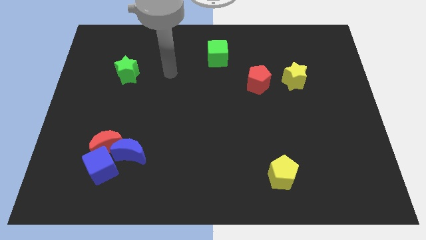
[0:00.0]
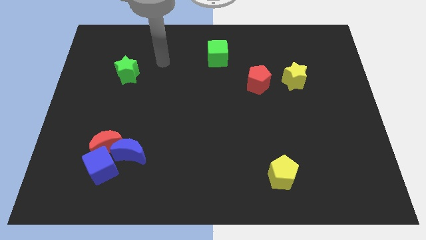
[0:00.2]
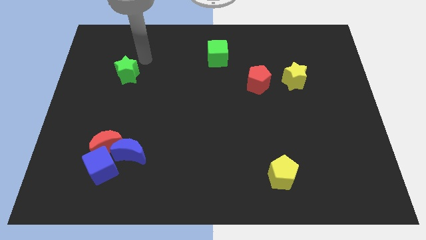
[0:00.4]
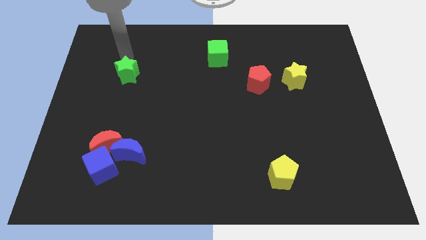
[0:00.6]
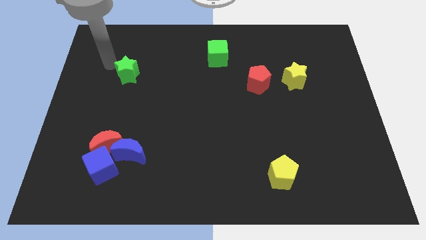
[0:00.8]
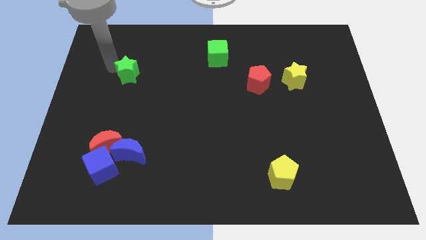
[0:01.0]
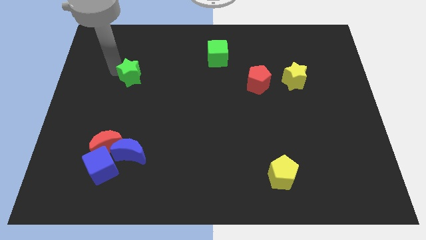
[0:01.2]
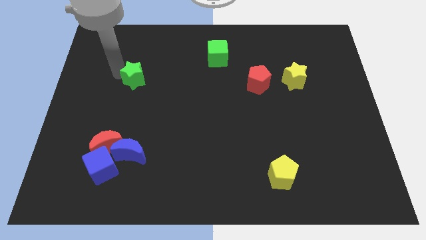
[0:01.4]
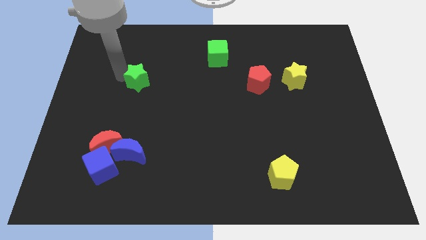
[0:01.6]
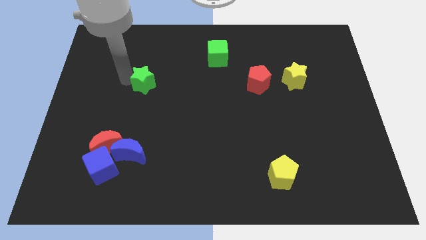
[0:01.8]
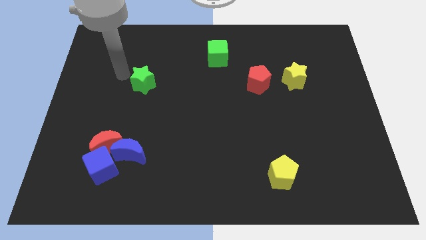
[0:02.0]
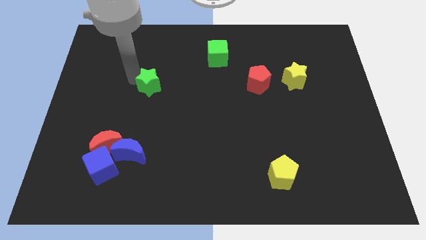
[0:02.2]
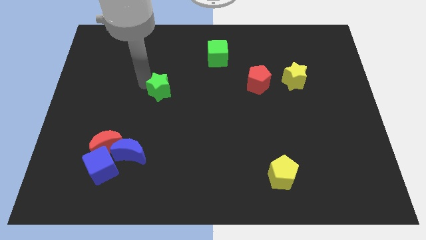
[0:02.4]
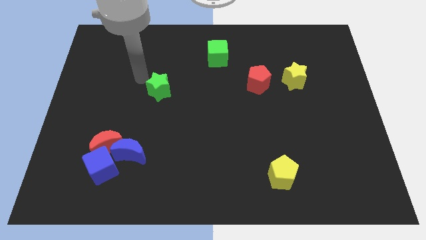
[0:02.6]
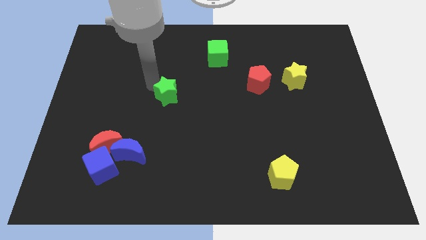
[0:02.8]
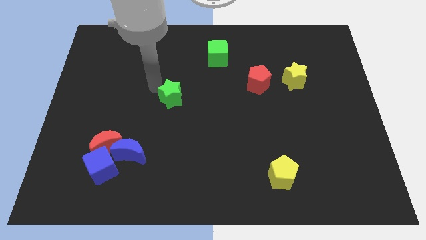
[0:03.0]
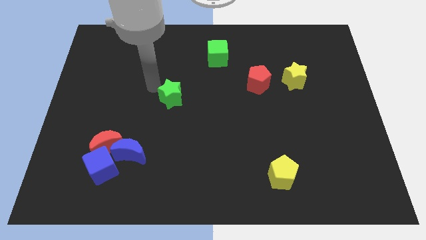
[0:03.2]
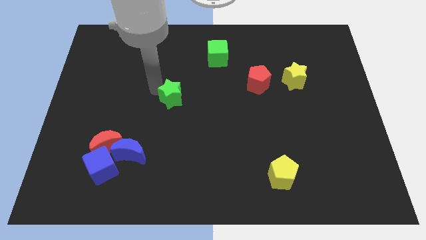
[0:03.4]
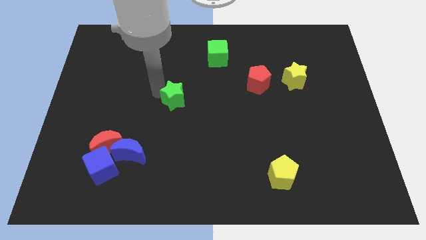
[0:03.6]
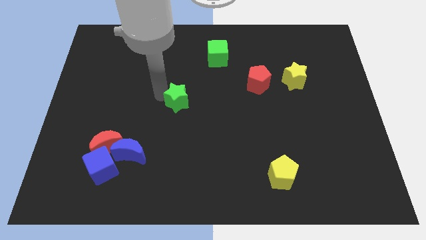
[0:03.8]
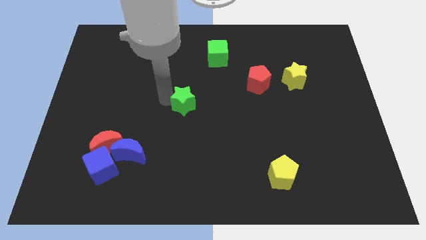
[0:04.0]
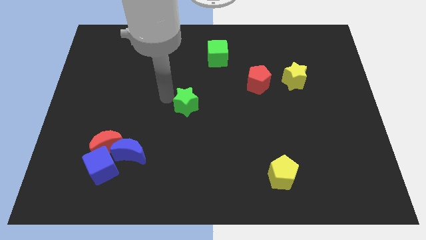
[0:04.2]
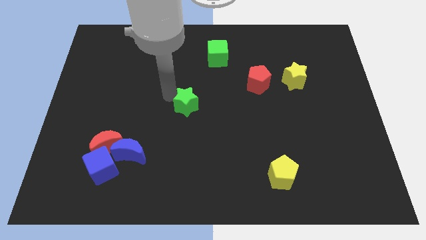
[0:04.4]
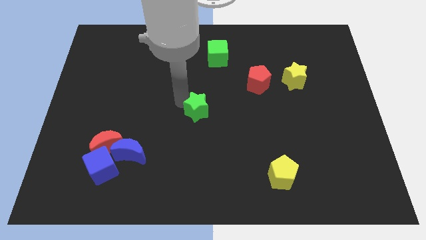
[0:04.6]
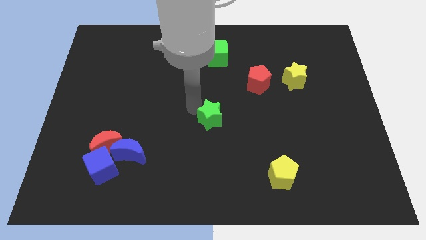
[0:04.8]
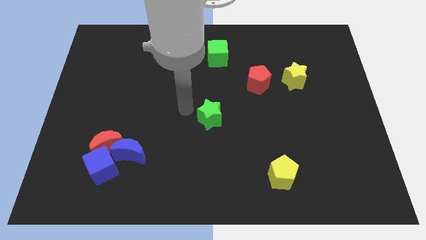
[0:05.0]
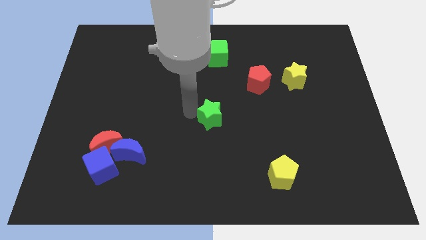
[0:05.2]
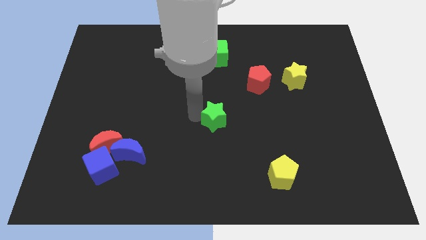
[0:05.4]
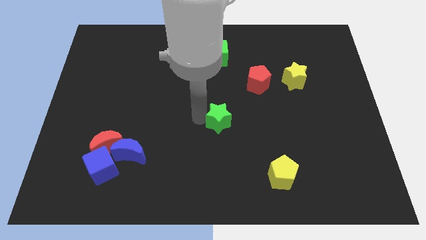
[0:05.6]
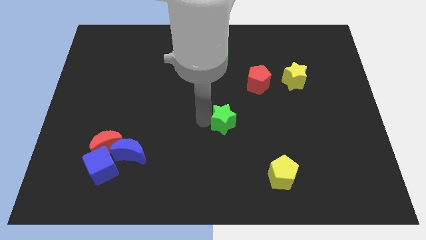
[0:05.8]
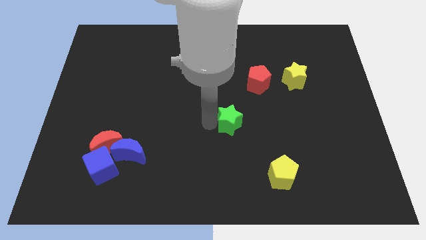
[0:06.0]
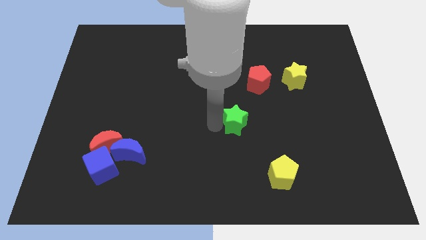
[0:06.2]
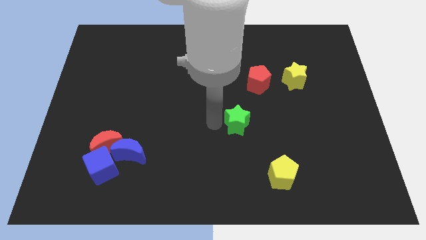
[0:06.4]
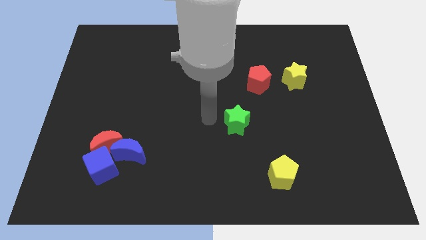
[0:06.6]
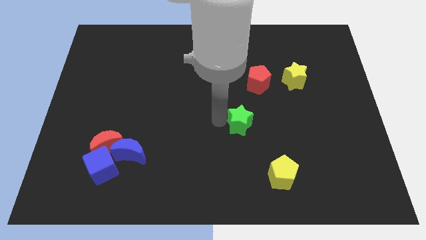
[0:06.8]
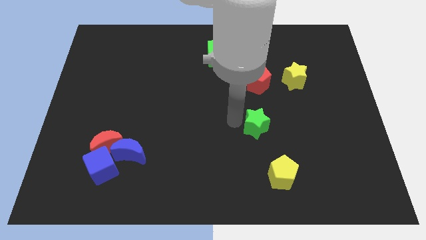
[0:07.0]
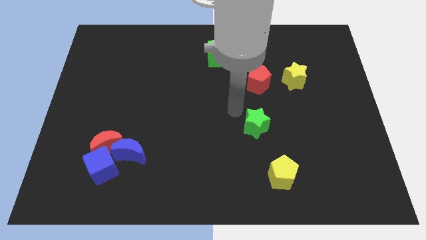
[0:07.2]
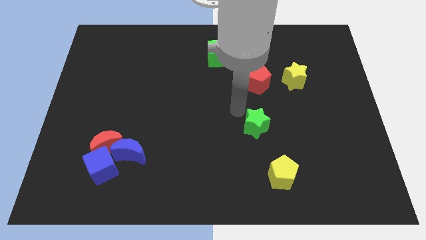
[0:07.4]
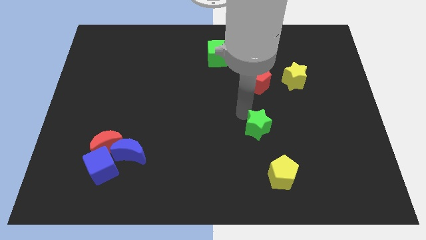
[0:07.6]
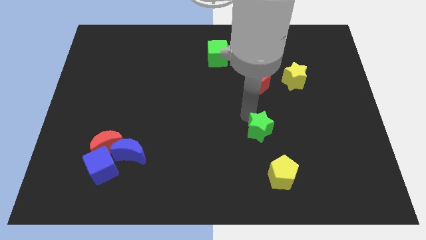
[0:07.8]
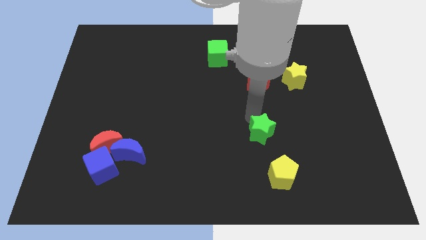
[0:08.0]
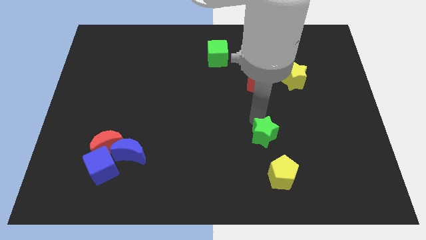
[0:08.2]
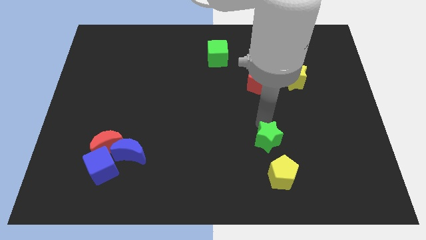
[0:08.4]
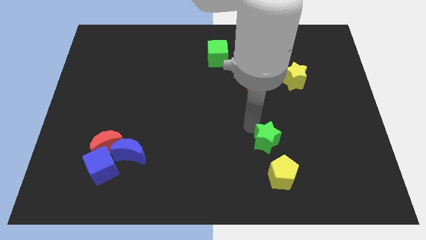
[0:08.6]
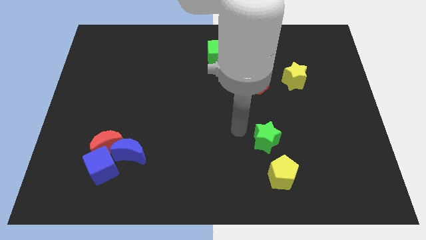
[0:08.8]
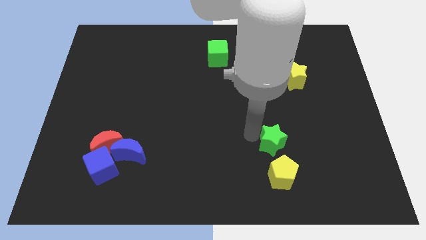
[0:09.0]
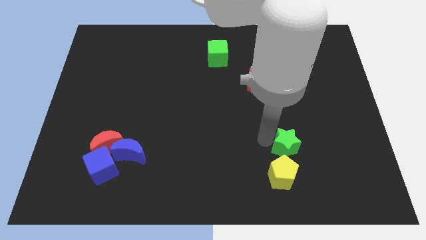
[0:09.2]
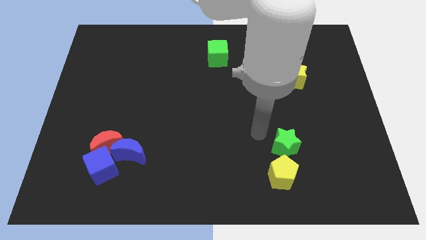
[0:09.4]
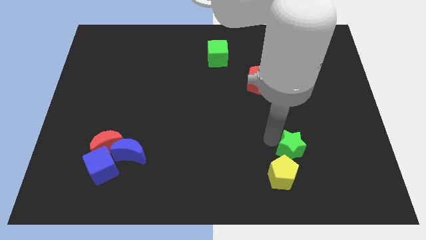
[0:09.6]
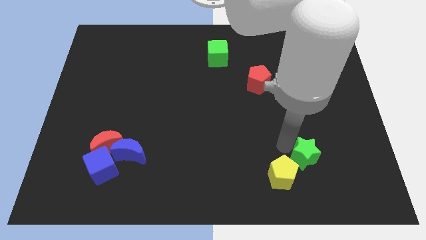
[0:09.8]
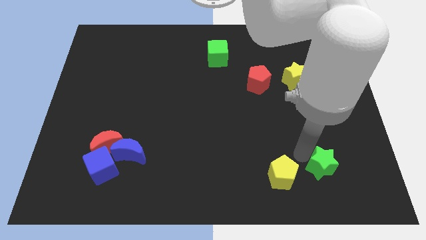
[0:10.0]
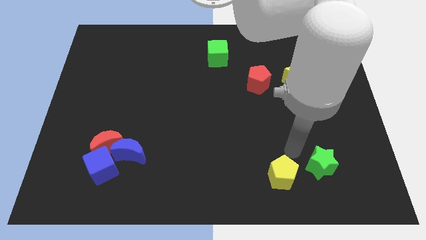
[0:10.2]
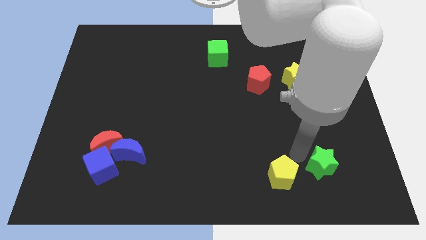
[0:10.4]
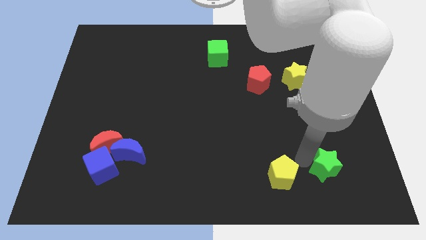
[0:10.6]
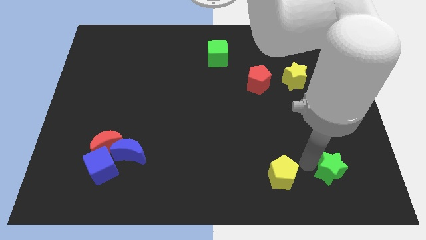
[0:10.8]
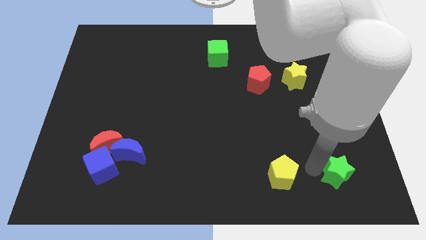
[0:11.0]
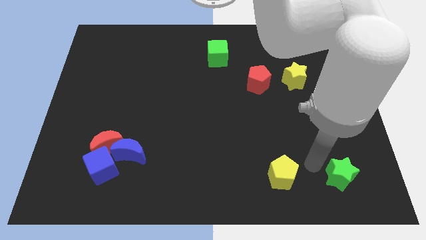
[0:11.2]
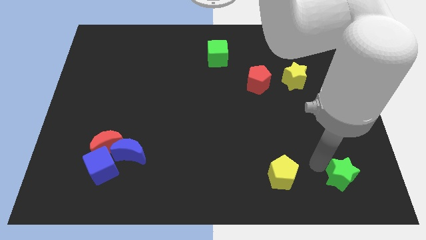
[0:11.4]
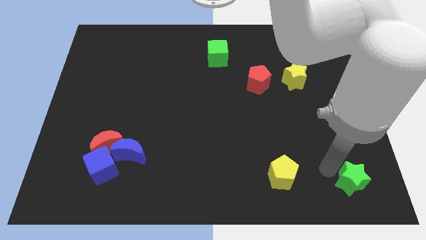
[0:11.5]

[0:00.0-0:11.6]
put the green star to the lower right corner

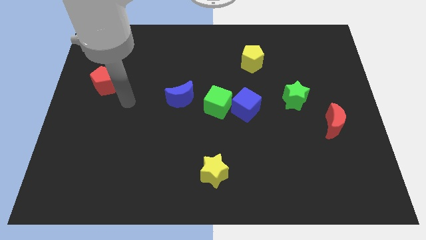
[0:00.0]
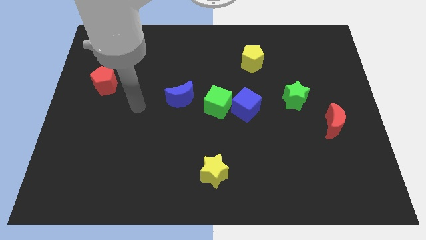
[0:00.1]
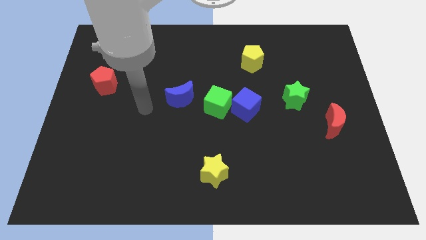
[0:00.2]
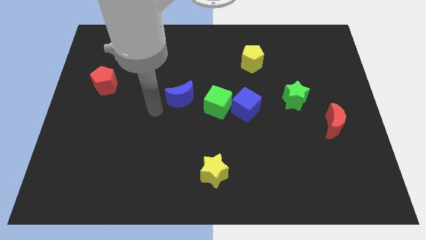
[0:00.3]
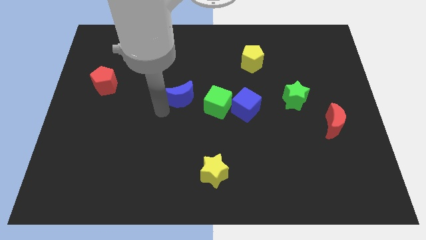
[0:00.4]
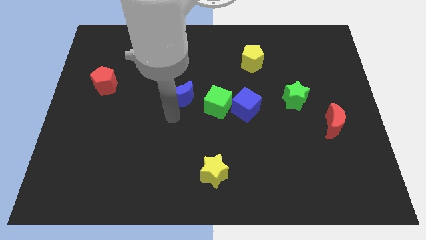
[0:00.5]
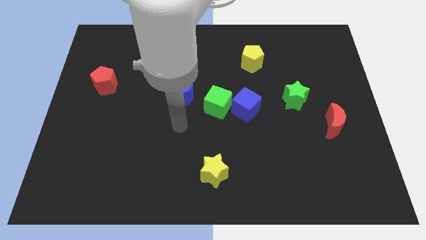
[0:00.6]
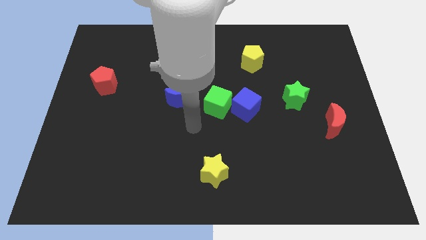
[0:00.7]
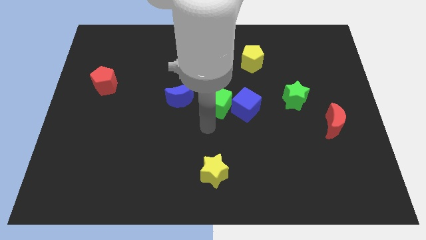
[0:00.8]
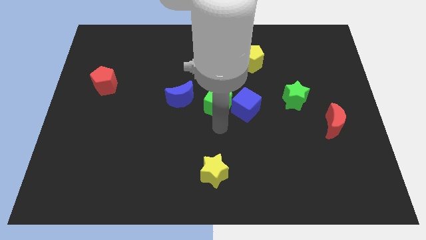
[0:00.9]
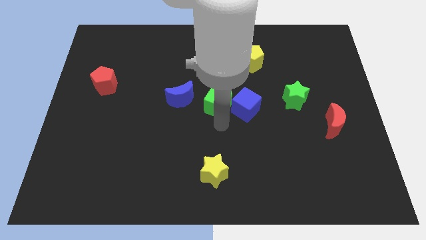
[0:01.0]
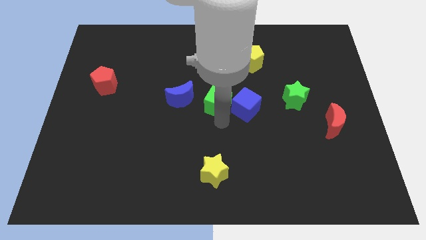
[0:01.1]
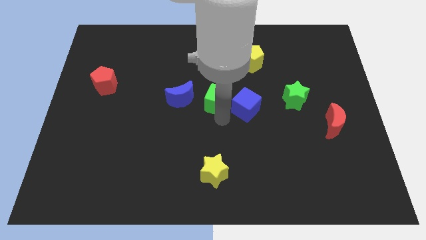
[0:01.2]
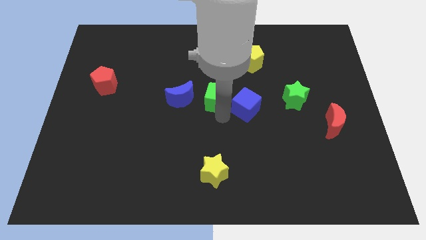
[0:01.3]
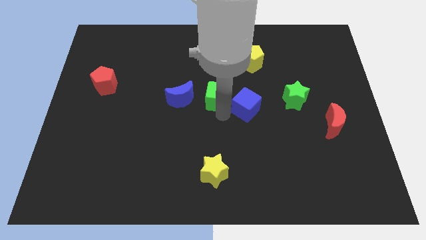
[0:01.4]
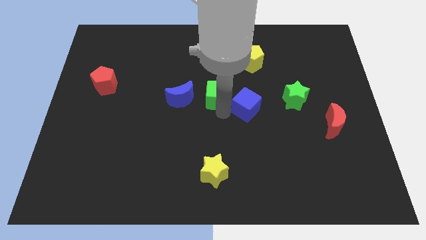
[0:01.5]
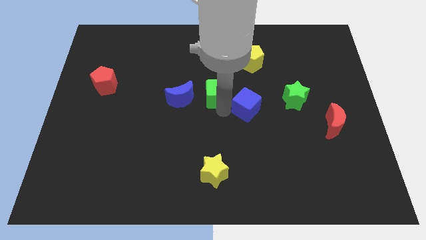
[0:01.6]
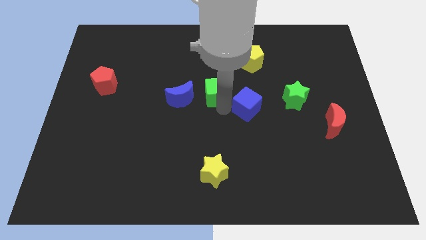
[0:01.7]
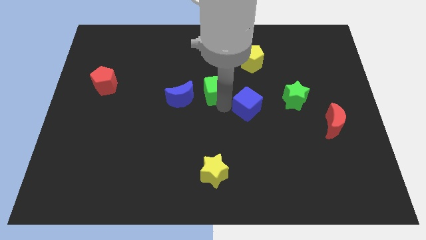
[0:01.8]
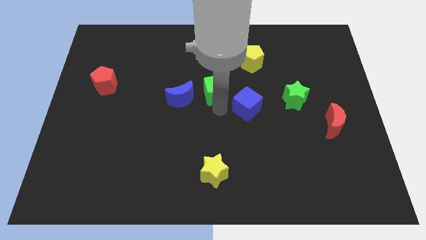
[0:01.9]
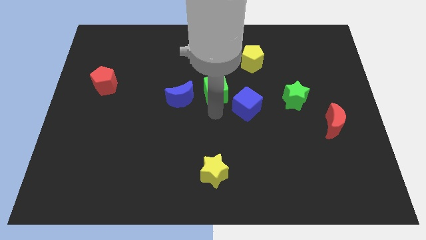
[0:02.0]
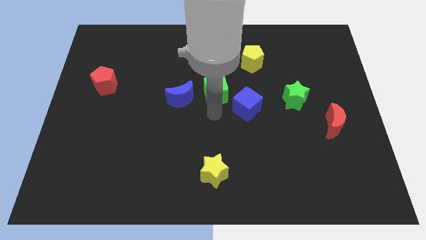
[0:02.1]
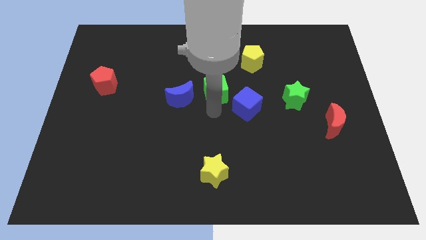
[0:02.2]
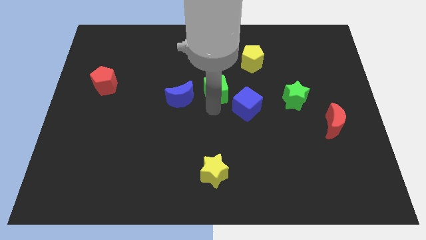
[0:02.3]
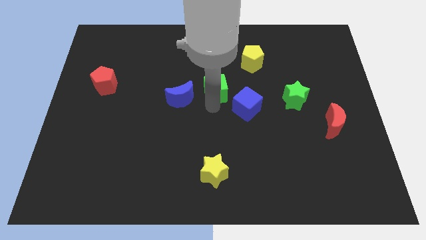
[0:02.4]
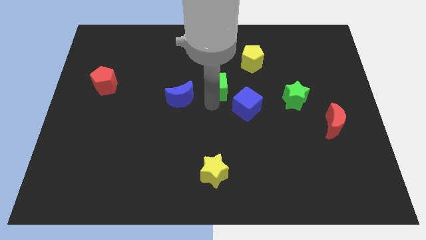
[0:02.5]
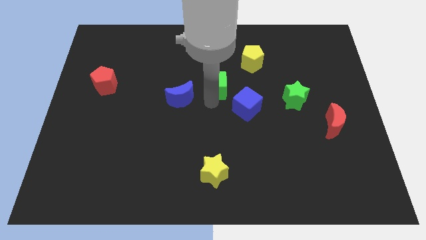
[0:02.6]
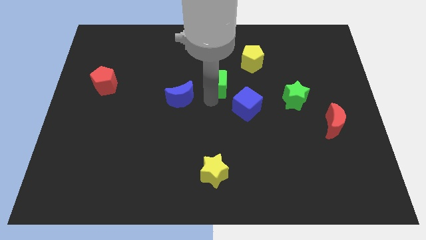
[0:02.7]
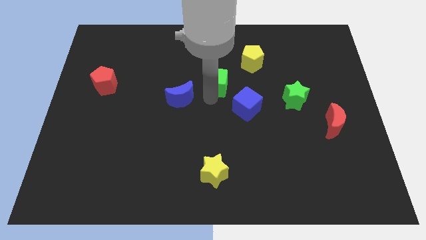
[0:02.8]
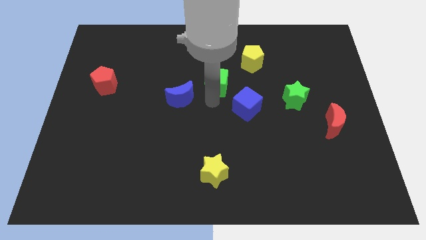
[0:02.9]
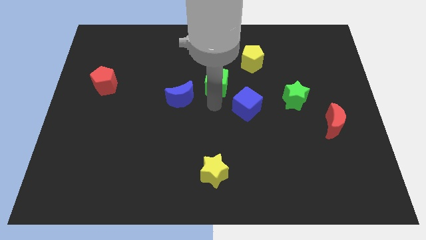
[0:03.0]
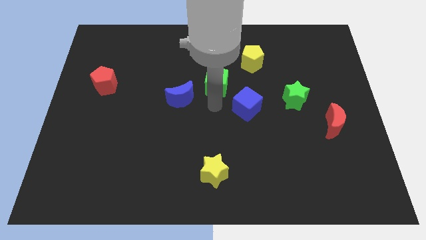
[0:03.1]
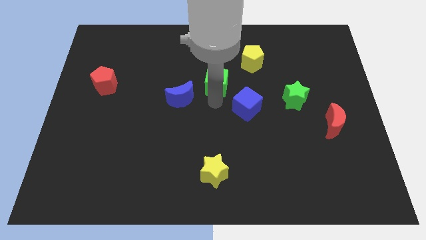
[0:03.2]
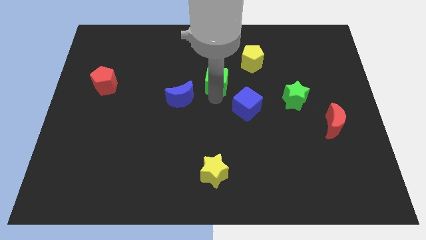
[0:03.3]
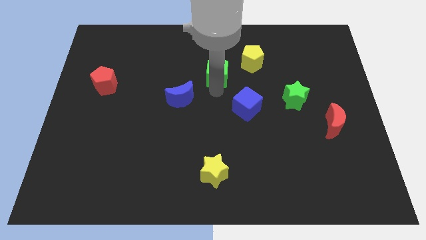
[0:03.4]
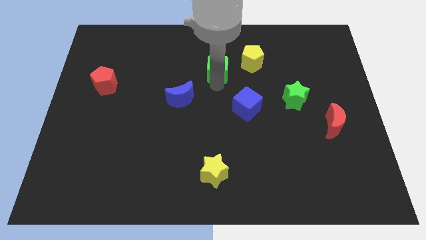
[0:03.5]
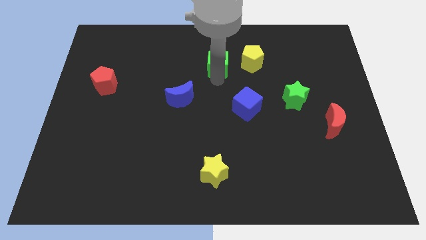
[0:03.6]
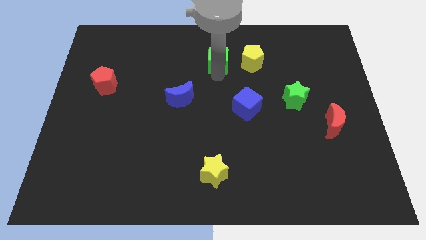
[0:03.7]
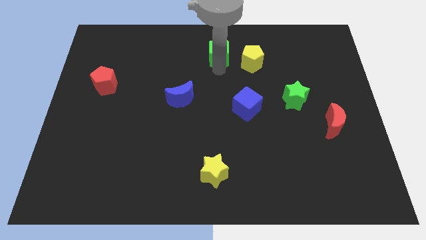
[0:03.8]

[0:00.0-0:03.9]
slide the green cube to the top side
